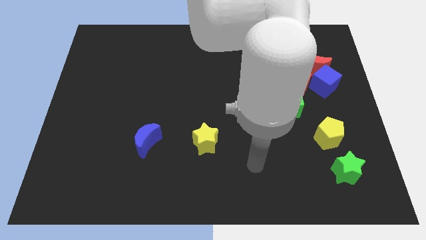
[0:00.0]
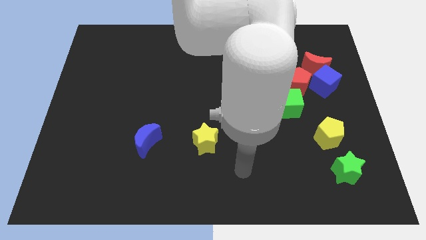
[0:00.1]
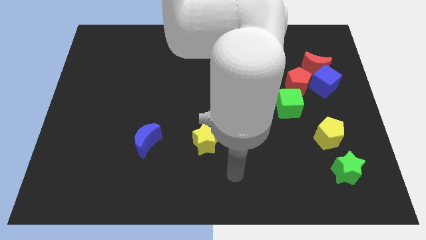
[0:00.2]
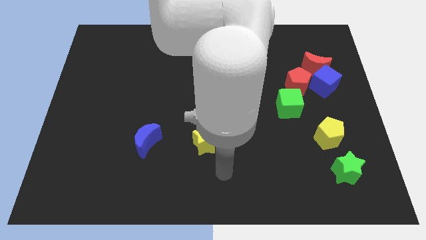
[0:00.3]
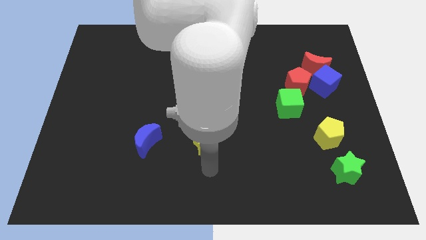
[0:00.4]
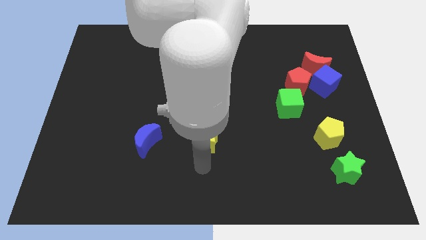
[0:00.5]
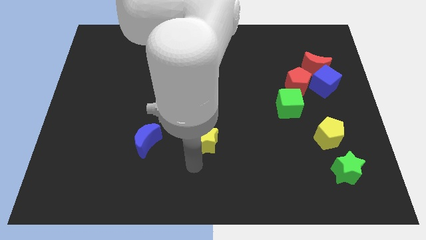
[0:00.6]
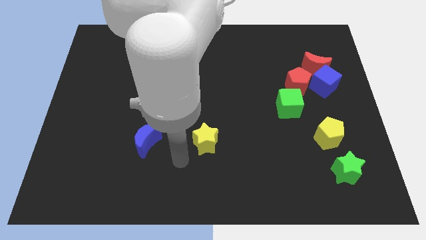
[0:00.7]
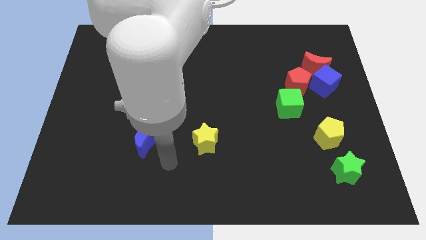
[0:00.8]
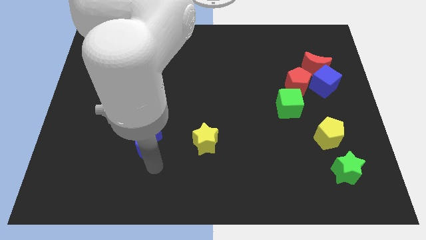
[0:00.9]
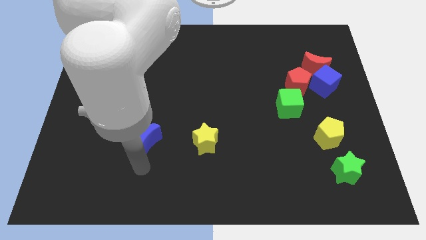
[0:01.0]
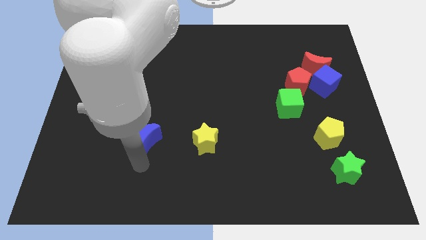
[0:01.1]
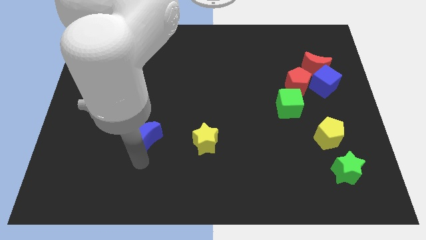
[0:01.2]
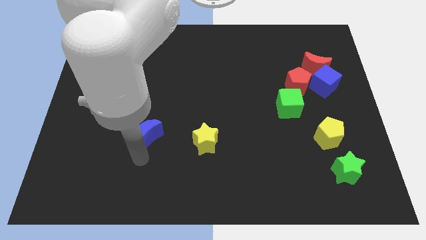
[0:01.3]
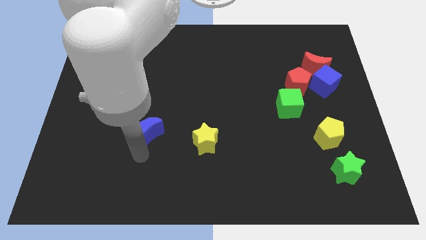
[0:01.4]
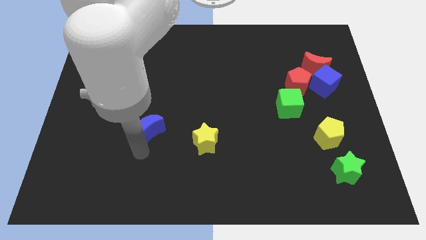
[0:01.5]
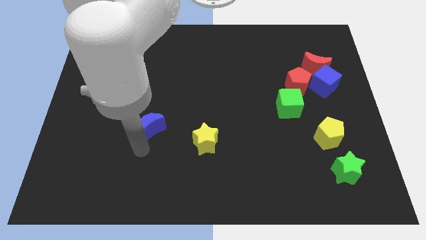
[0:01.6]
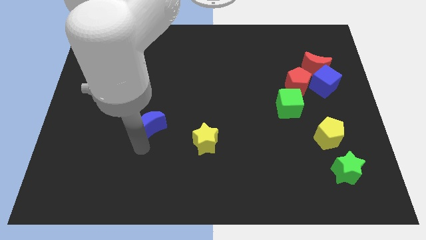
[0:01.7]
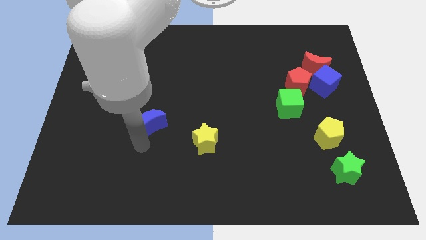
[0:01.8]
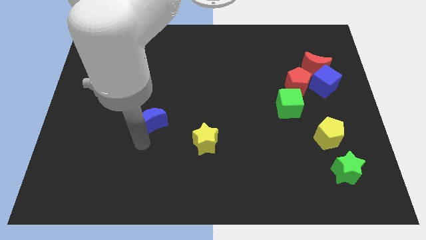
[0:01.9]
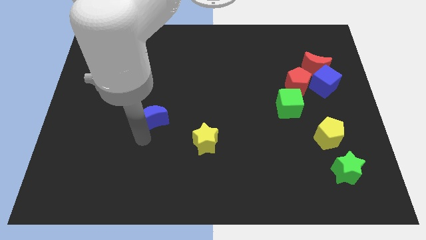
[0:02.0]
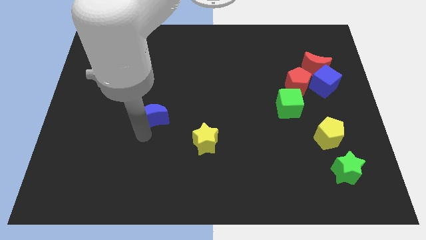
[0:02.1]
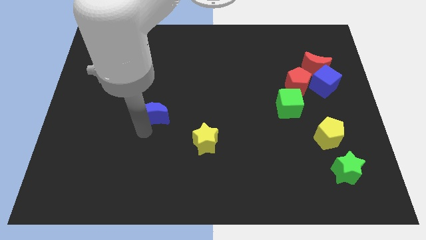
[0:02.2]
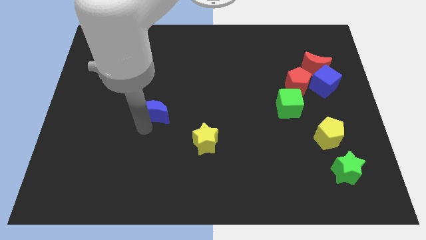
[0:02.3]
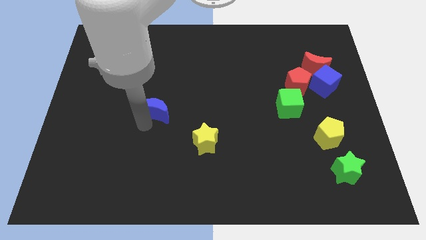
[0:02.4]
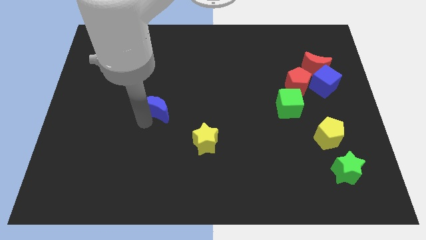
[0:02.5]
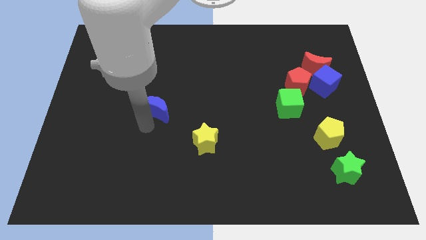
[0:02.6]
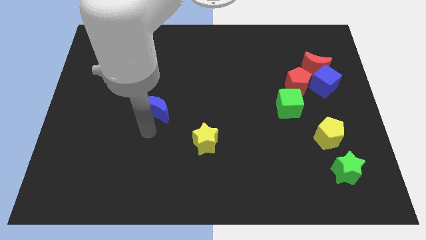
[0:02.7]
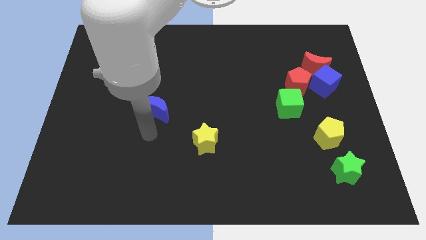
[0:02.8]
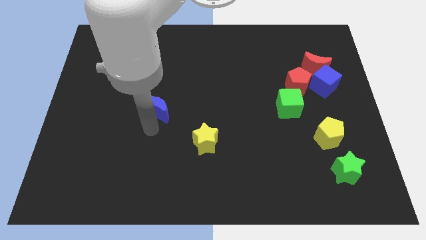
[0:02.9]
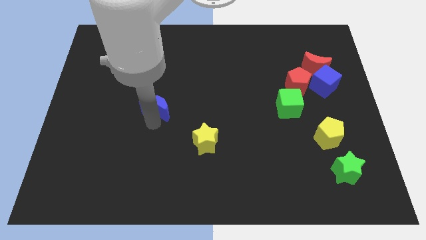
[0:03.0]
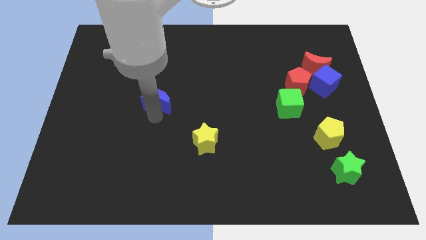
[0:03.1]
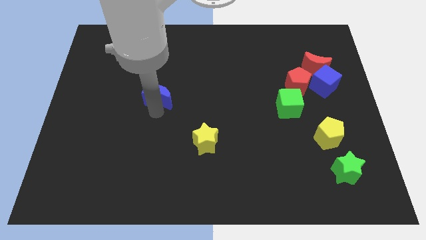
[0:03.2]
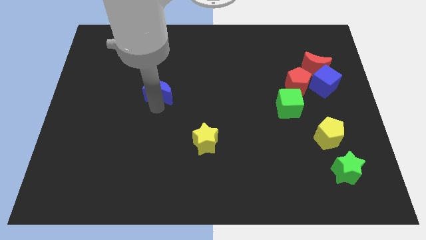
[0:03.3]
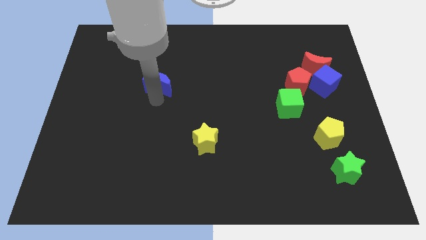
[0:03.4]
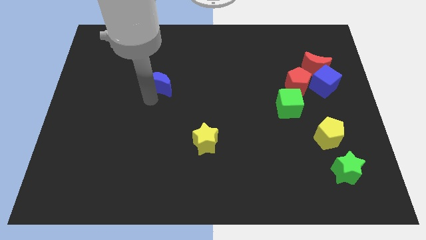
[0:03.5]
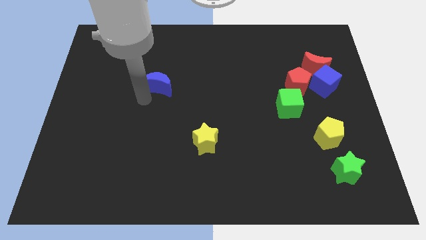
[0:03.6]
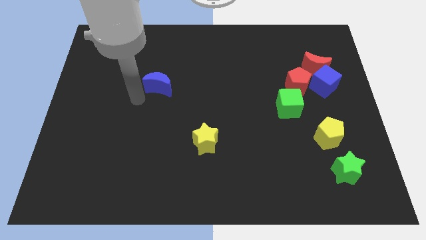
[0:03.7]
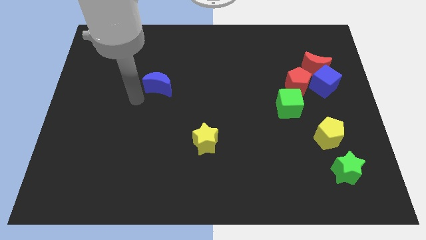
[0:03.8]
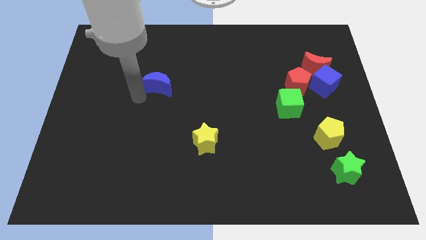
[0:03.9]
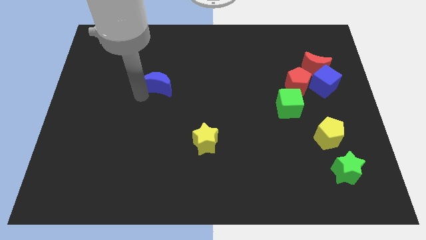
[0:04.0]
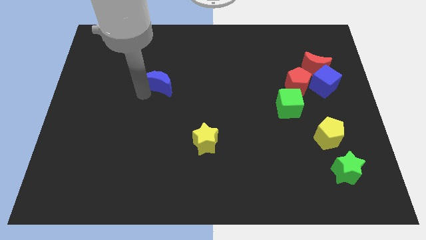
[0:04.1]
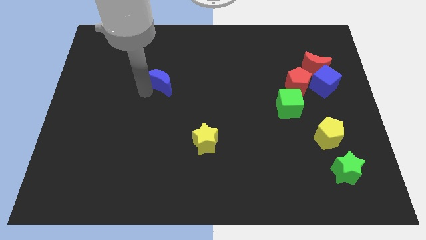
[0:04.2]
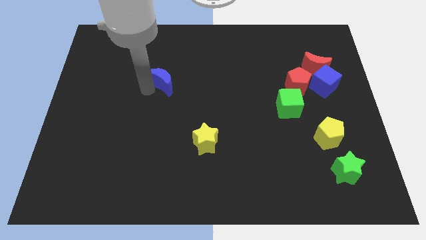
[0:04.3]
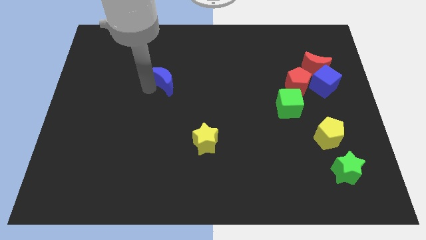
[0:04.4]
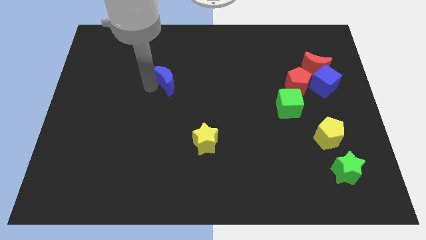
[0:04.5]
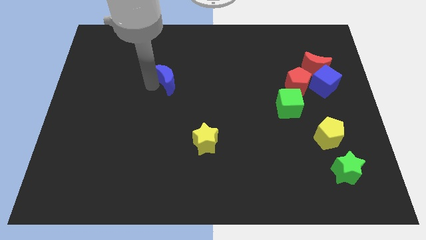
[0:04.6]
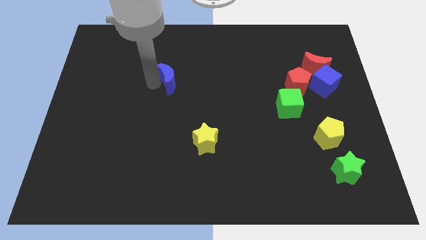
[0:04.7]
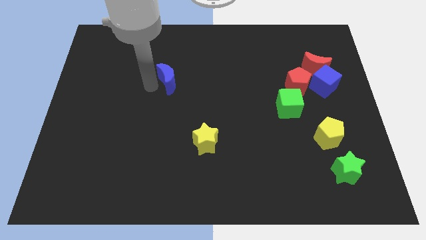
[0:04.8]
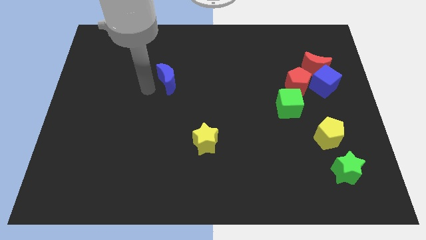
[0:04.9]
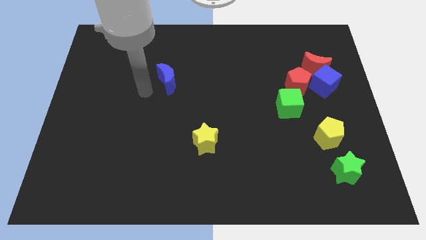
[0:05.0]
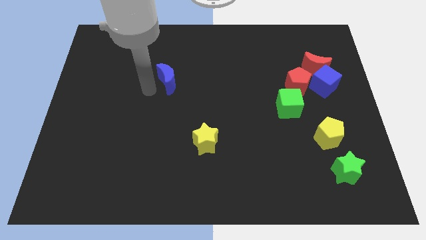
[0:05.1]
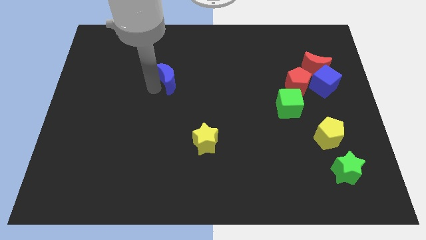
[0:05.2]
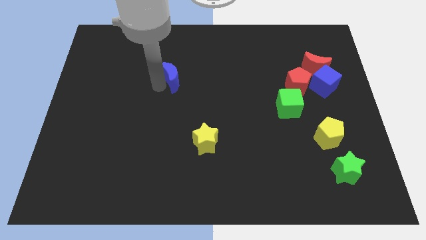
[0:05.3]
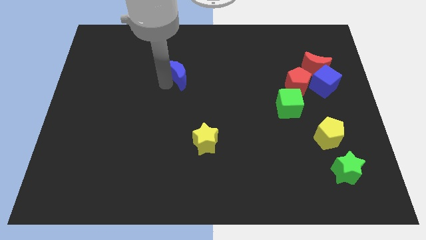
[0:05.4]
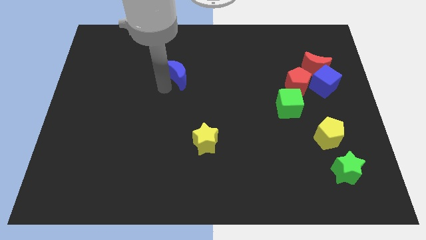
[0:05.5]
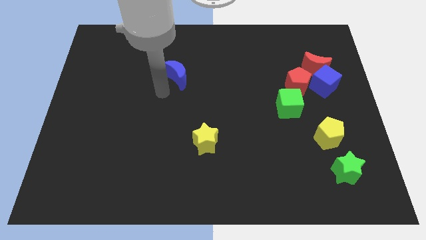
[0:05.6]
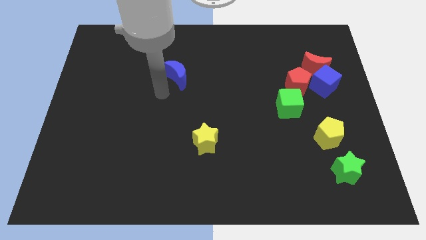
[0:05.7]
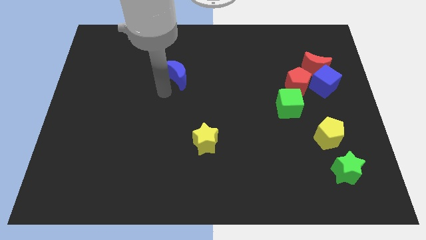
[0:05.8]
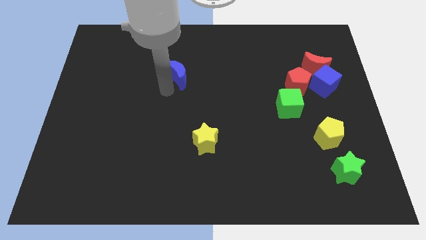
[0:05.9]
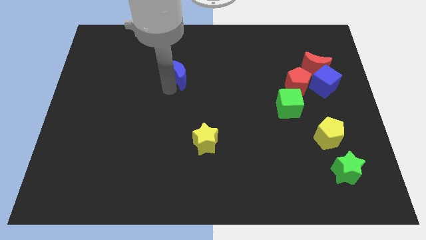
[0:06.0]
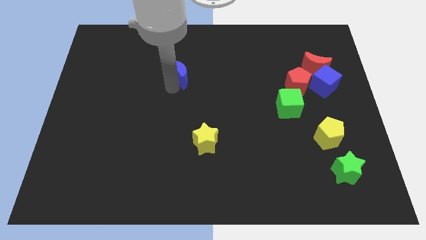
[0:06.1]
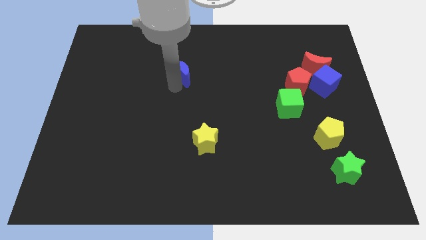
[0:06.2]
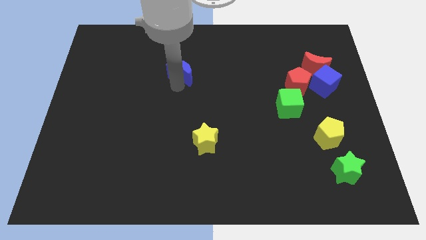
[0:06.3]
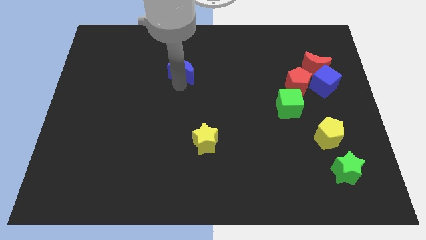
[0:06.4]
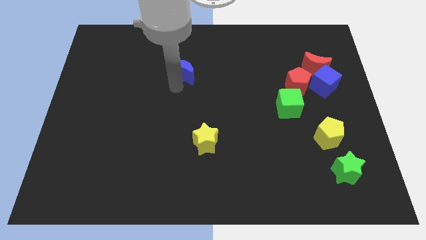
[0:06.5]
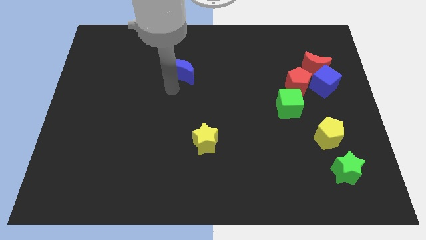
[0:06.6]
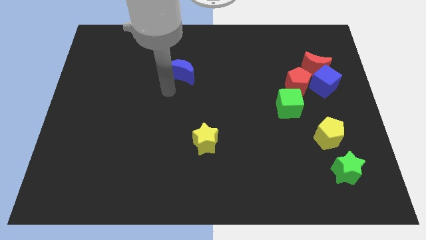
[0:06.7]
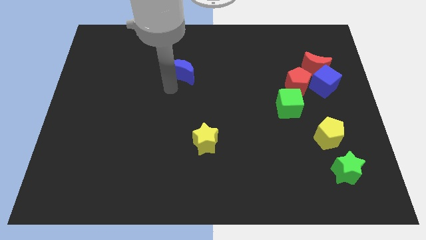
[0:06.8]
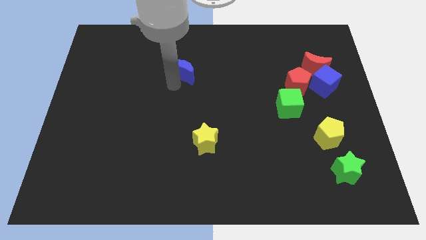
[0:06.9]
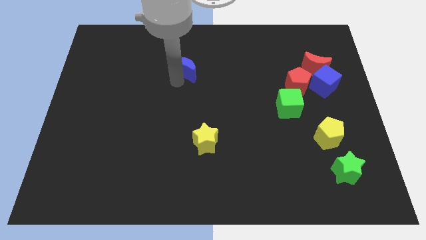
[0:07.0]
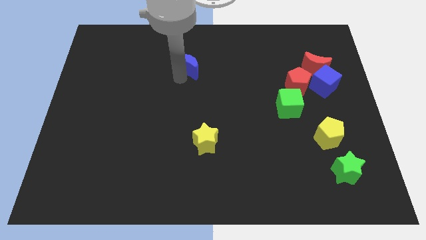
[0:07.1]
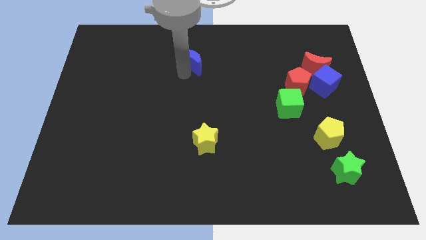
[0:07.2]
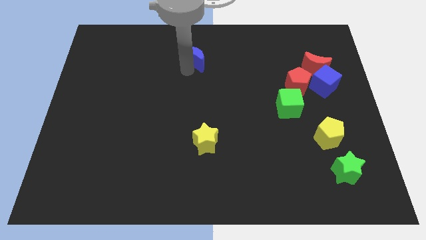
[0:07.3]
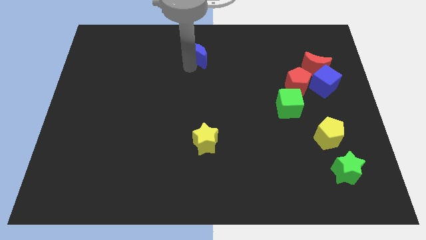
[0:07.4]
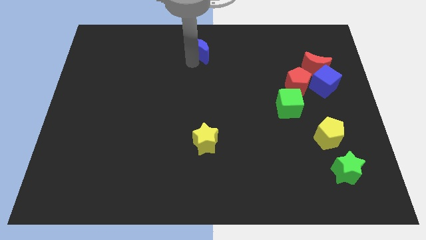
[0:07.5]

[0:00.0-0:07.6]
put the blue moon to the towards your base
